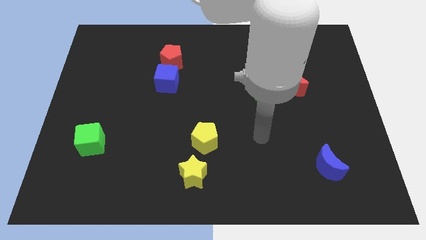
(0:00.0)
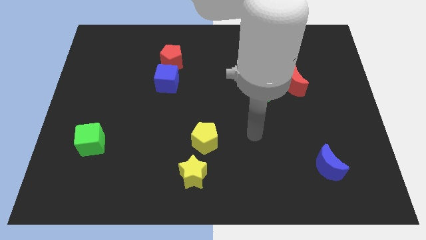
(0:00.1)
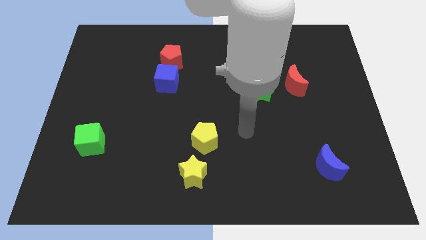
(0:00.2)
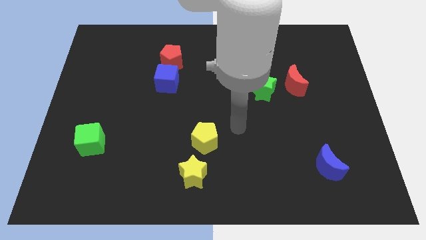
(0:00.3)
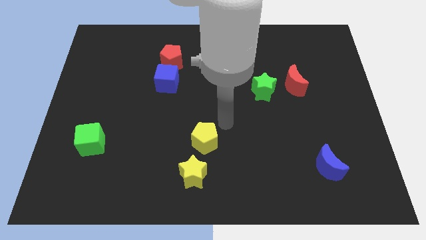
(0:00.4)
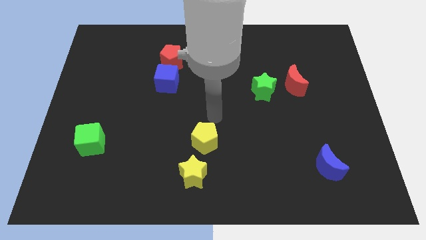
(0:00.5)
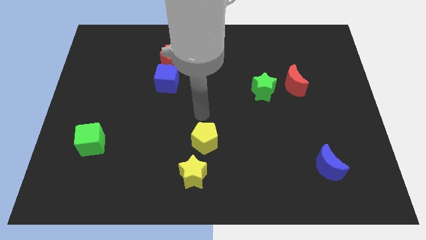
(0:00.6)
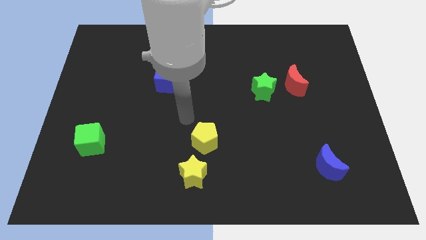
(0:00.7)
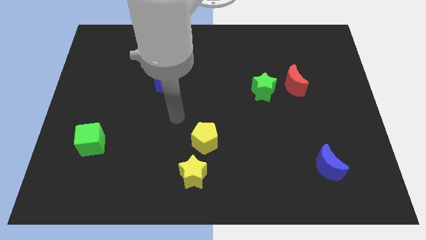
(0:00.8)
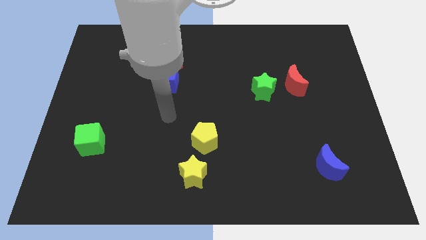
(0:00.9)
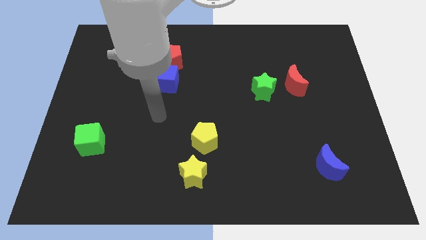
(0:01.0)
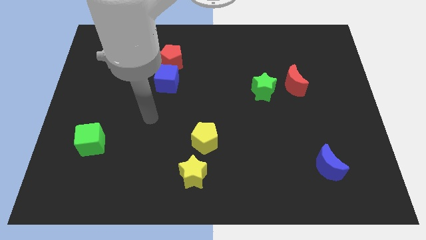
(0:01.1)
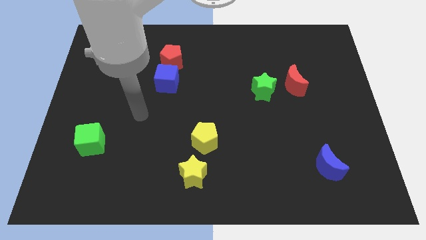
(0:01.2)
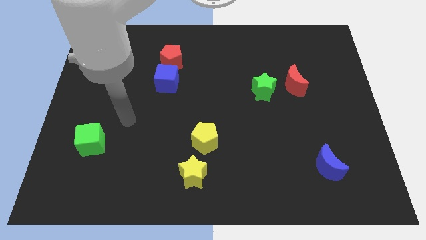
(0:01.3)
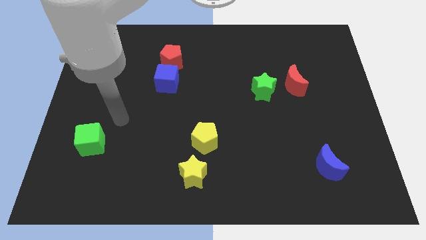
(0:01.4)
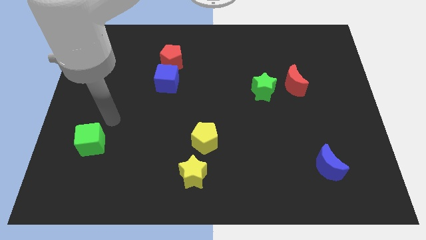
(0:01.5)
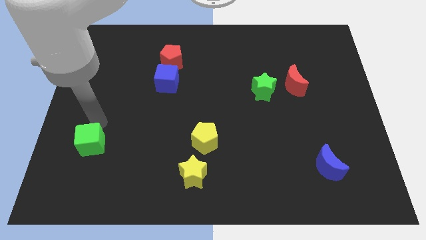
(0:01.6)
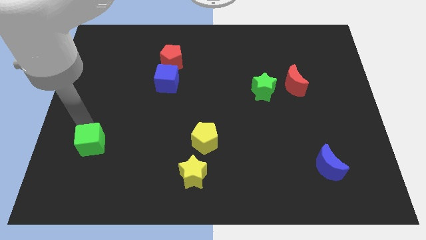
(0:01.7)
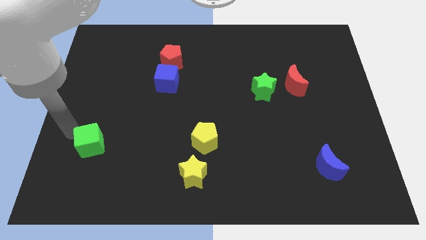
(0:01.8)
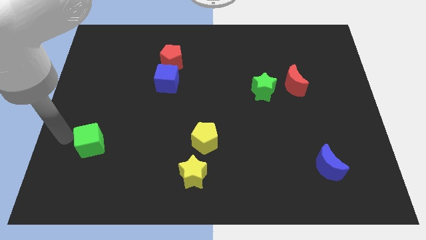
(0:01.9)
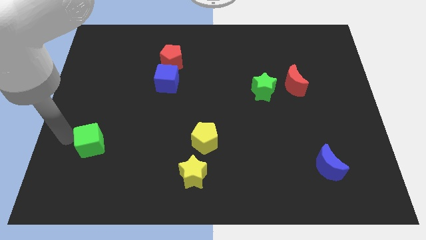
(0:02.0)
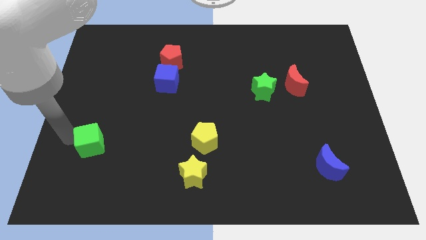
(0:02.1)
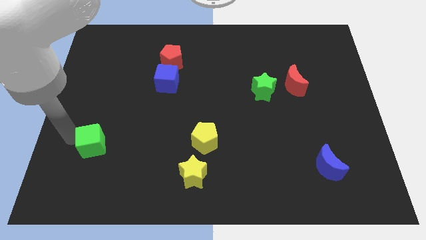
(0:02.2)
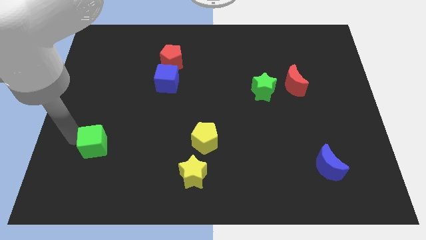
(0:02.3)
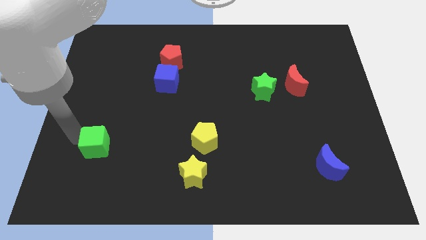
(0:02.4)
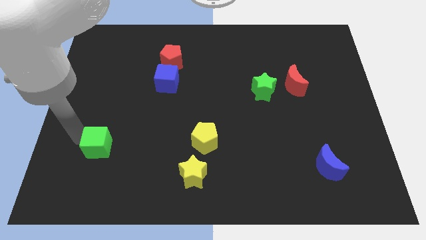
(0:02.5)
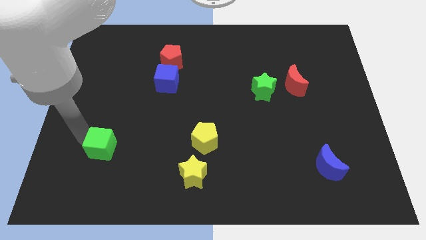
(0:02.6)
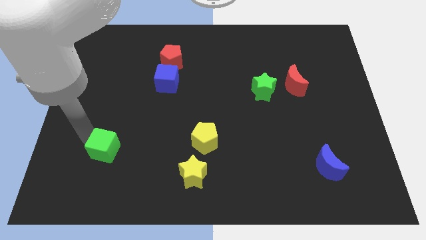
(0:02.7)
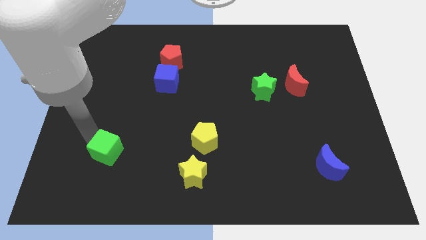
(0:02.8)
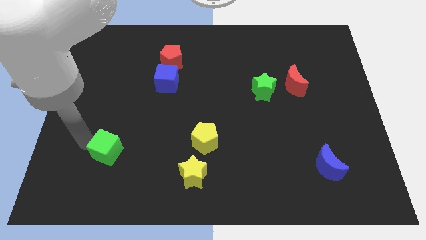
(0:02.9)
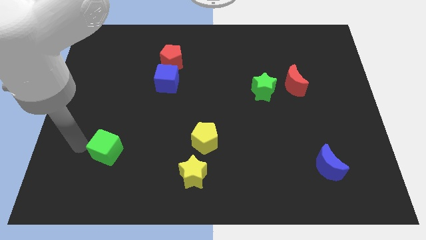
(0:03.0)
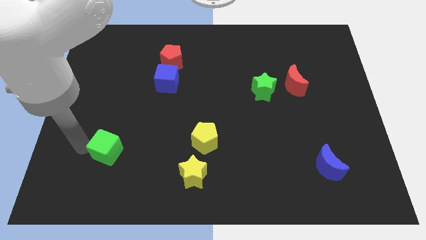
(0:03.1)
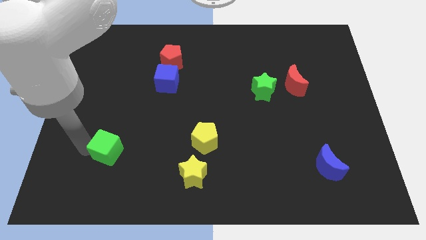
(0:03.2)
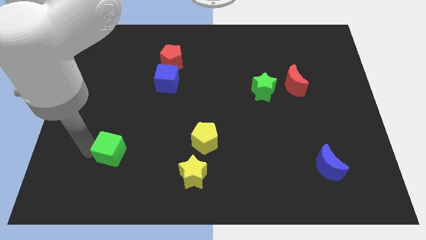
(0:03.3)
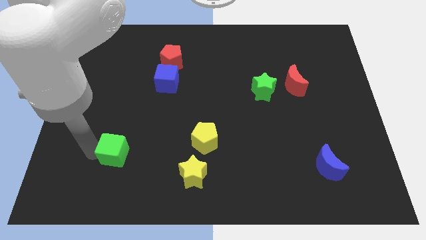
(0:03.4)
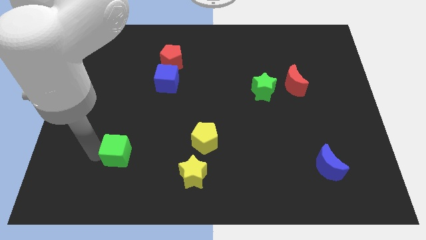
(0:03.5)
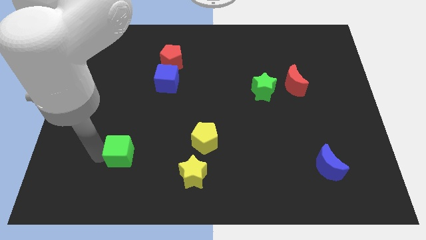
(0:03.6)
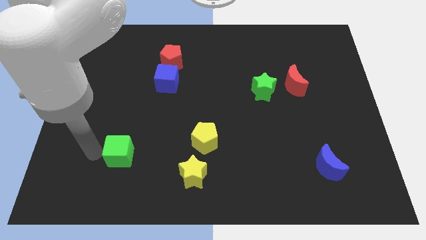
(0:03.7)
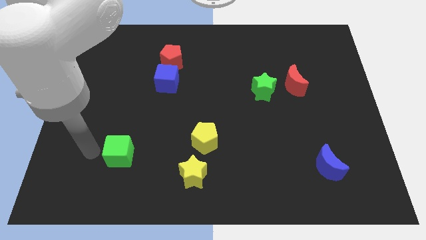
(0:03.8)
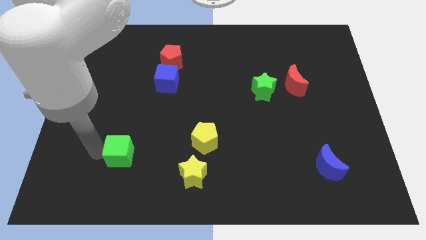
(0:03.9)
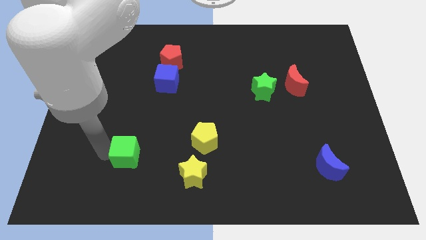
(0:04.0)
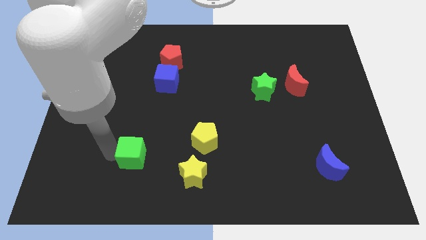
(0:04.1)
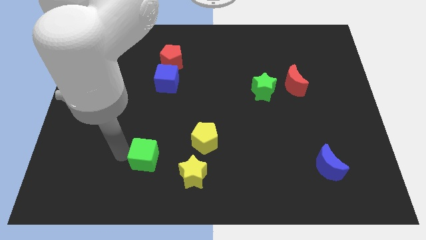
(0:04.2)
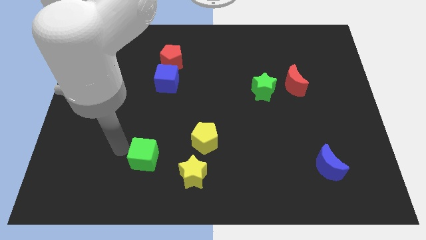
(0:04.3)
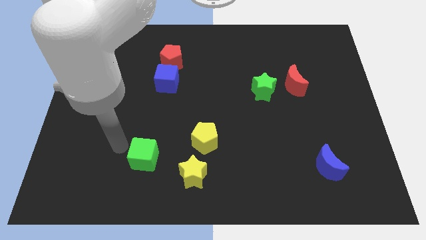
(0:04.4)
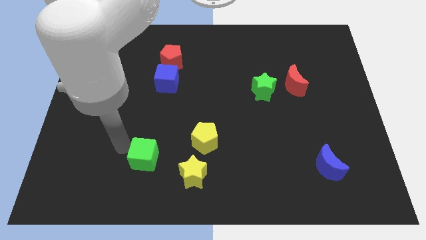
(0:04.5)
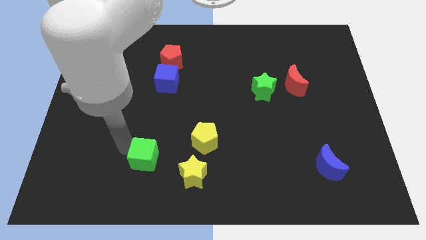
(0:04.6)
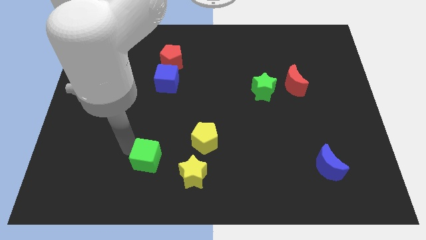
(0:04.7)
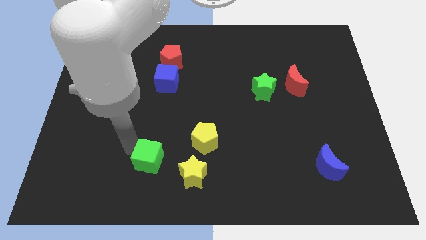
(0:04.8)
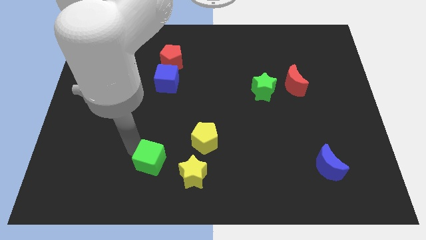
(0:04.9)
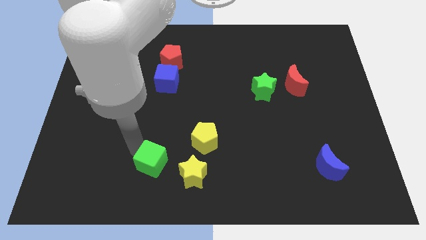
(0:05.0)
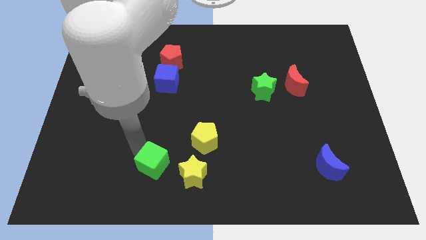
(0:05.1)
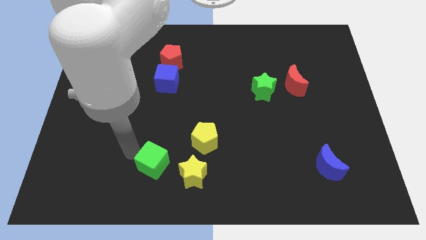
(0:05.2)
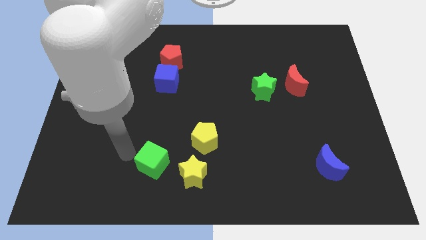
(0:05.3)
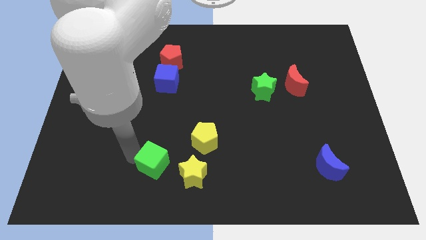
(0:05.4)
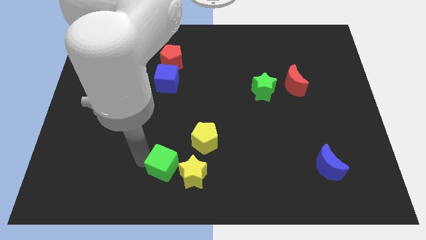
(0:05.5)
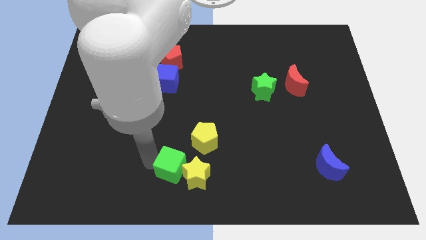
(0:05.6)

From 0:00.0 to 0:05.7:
put the green cube to the yellow star

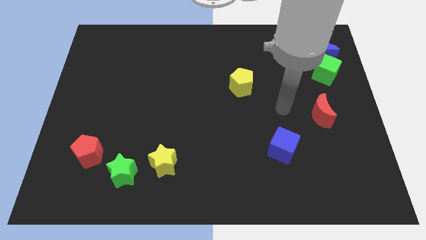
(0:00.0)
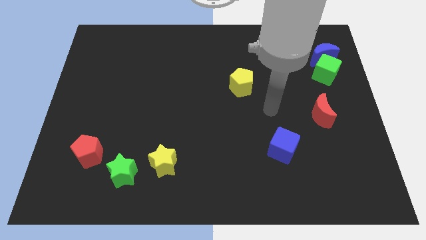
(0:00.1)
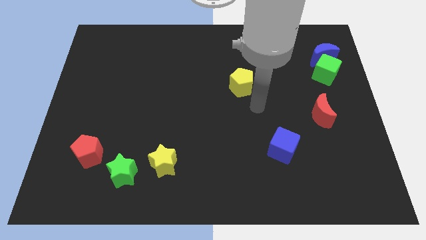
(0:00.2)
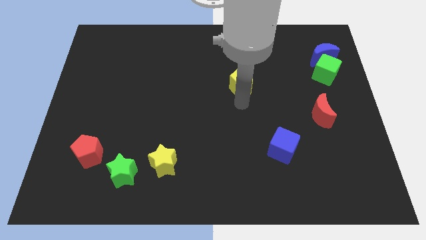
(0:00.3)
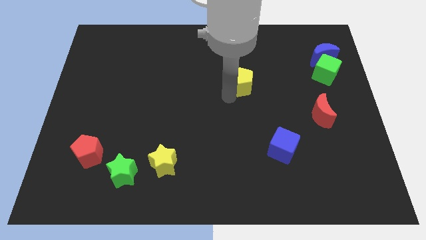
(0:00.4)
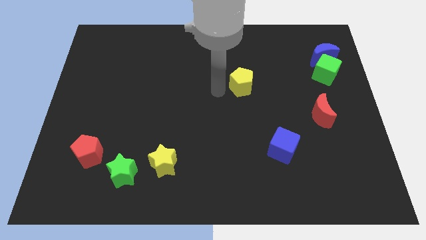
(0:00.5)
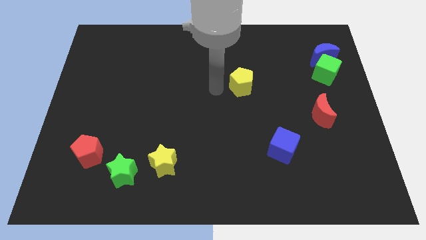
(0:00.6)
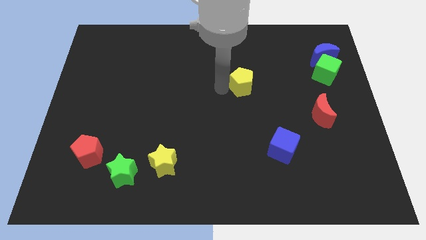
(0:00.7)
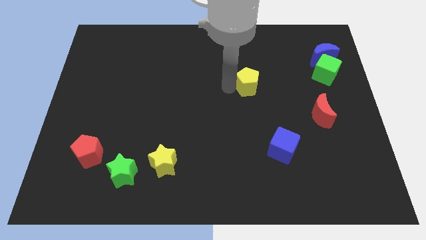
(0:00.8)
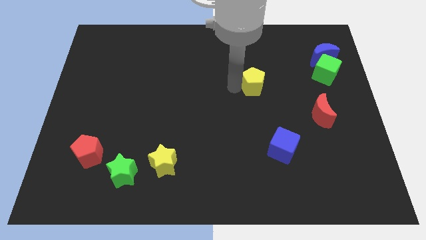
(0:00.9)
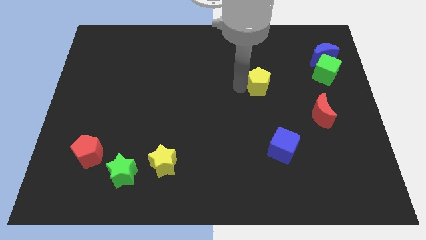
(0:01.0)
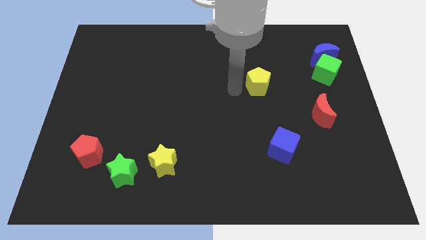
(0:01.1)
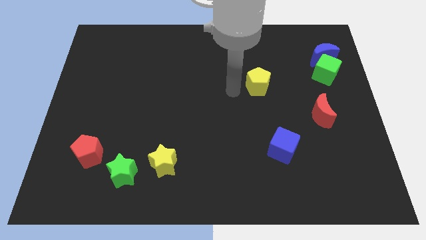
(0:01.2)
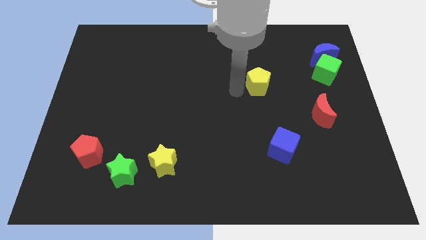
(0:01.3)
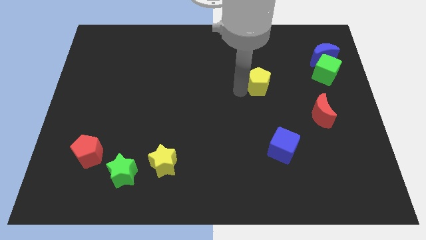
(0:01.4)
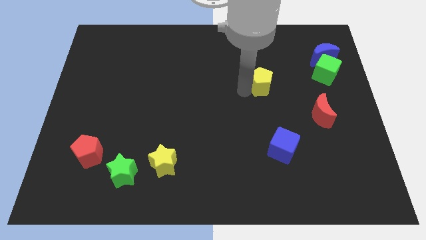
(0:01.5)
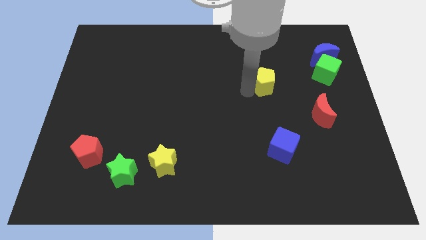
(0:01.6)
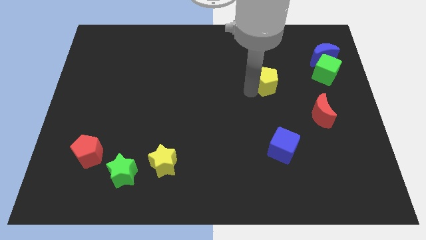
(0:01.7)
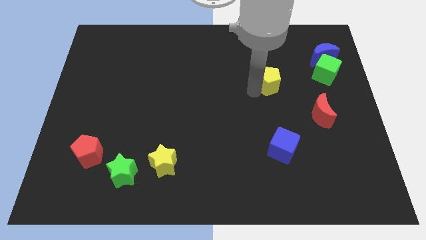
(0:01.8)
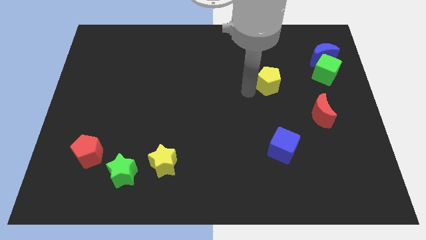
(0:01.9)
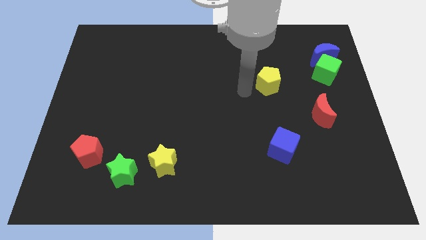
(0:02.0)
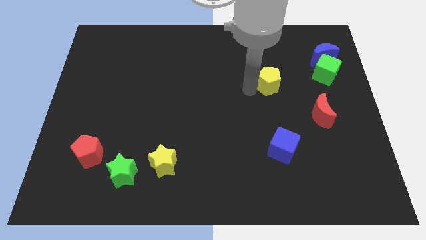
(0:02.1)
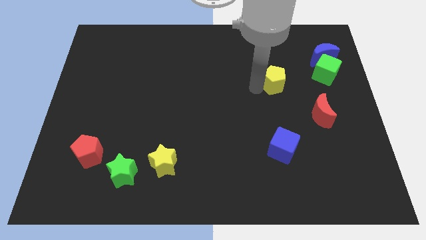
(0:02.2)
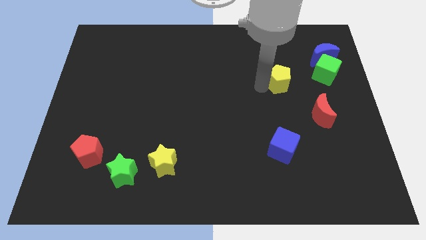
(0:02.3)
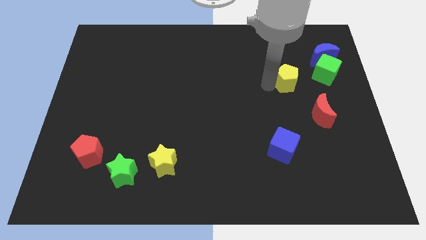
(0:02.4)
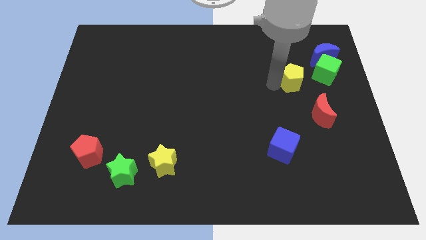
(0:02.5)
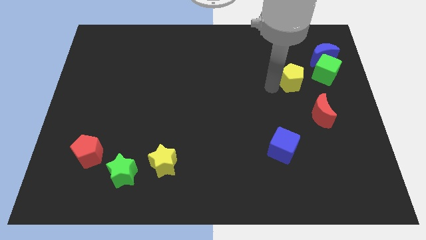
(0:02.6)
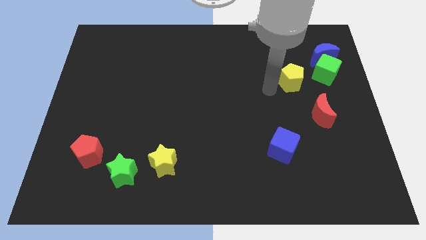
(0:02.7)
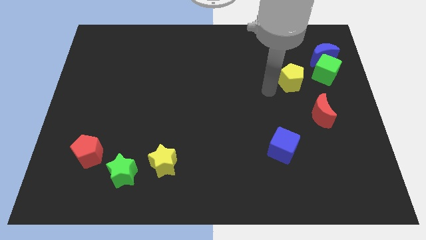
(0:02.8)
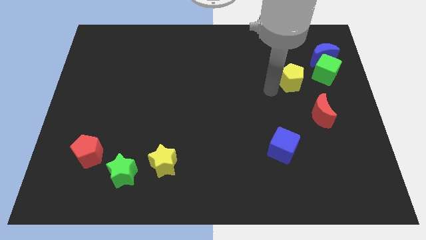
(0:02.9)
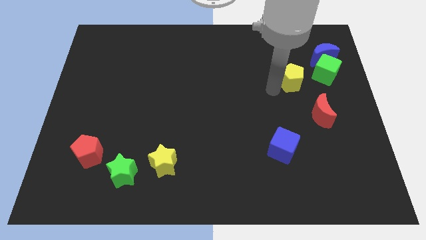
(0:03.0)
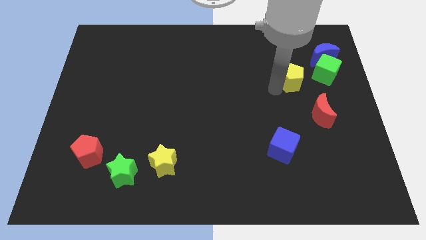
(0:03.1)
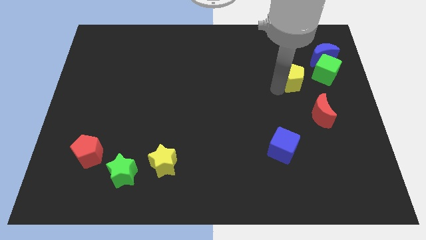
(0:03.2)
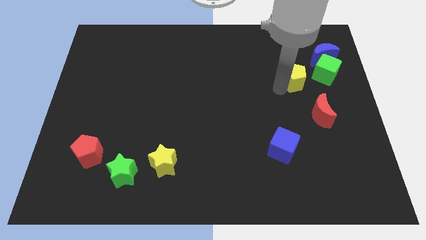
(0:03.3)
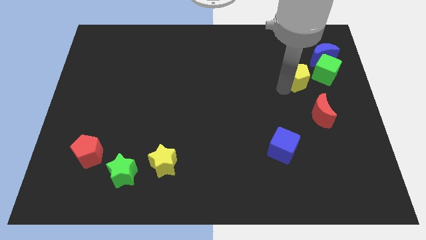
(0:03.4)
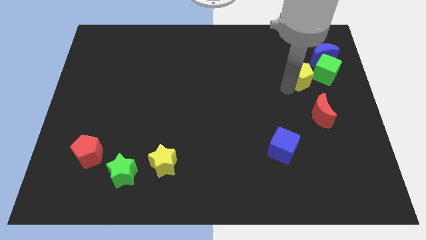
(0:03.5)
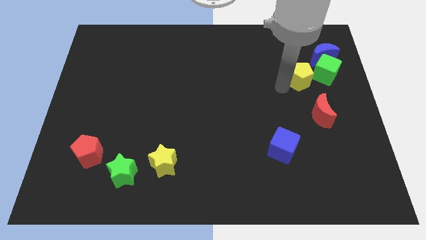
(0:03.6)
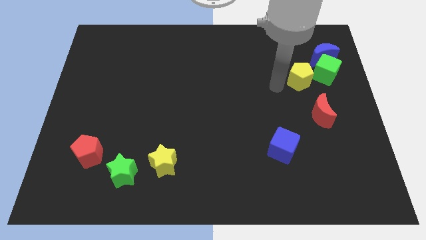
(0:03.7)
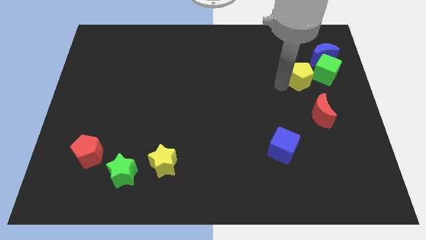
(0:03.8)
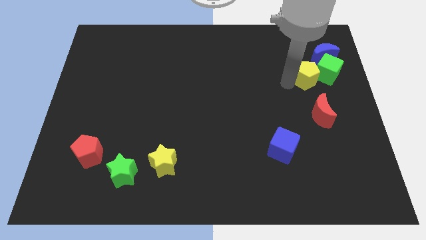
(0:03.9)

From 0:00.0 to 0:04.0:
put the yellow pentagon next to the green cube
